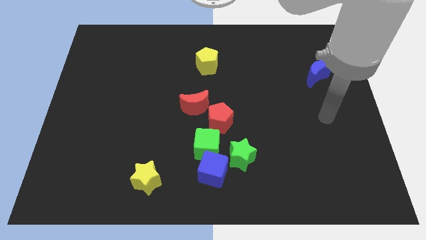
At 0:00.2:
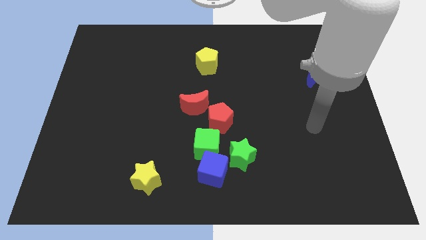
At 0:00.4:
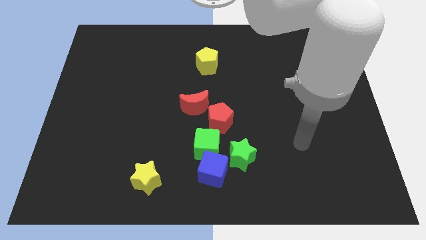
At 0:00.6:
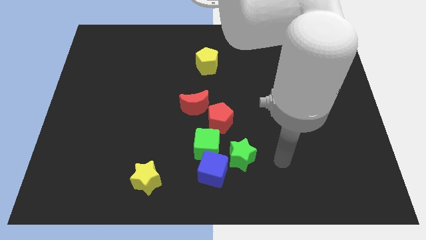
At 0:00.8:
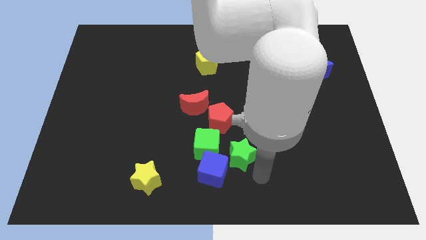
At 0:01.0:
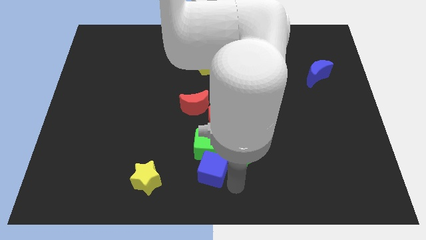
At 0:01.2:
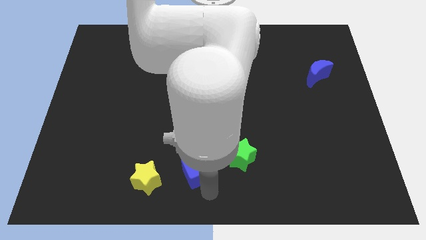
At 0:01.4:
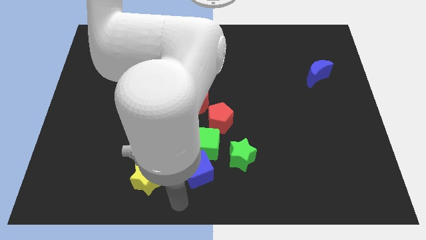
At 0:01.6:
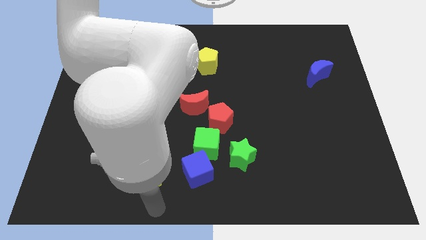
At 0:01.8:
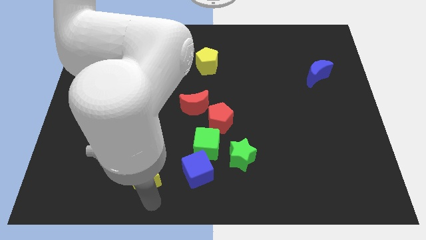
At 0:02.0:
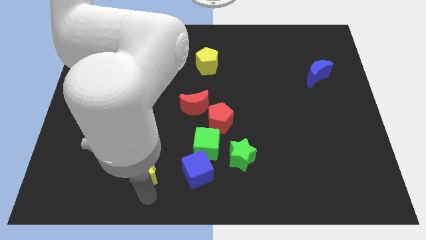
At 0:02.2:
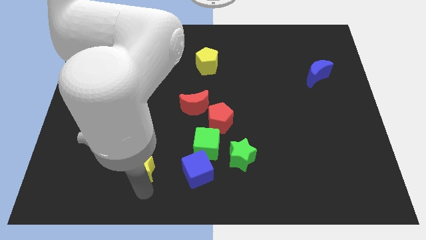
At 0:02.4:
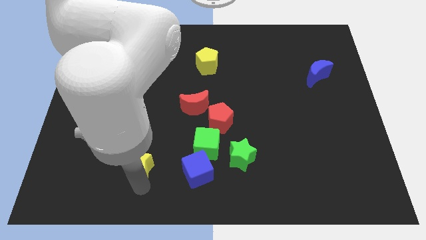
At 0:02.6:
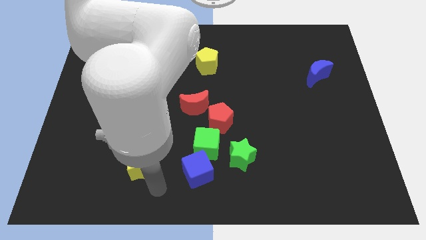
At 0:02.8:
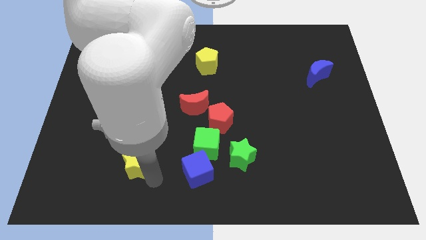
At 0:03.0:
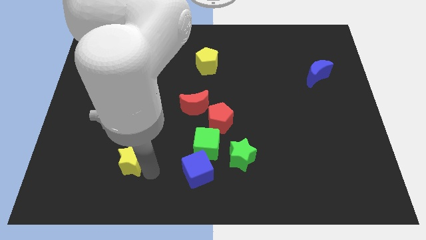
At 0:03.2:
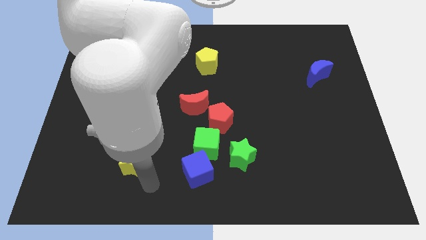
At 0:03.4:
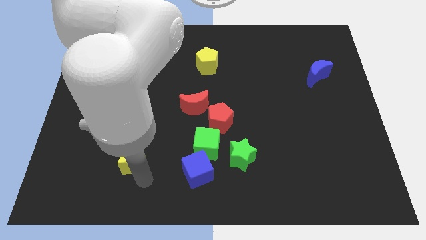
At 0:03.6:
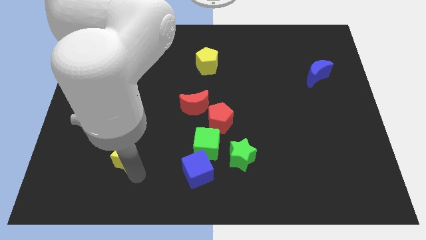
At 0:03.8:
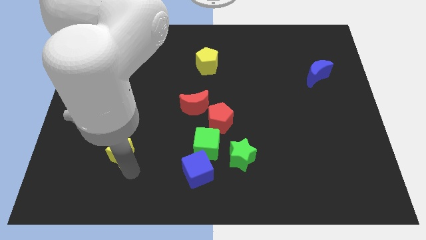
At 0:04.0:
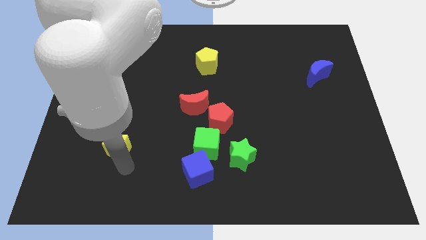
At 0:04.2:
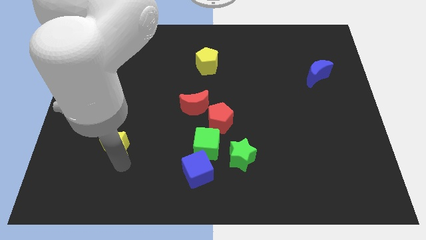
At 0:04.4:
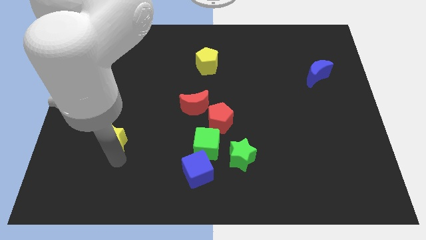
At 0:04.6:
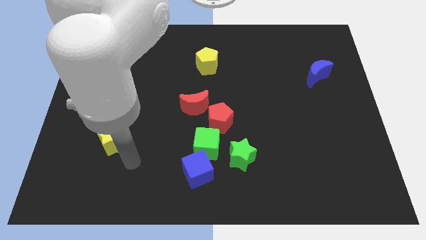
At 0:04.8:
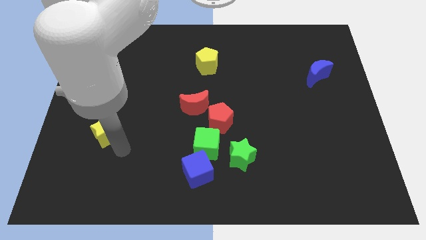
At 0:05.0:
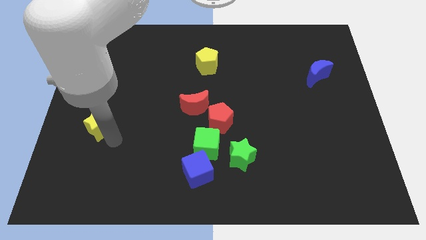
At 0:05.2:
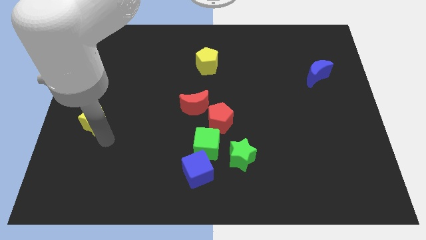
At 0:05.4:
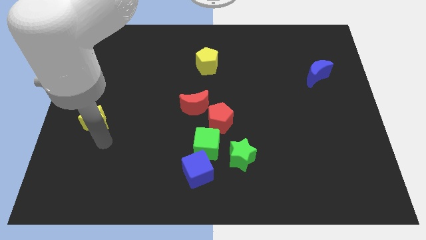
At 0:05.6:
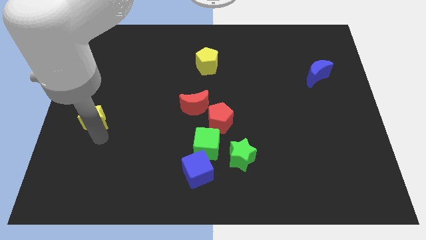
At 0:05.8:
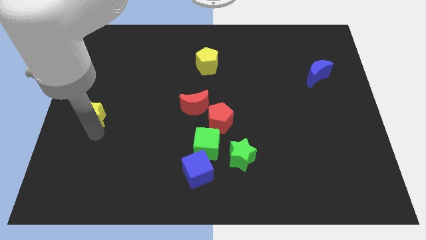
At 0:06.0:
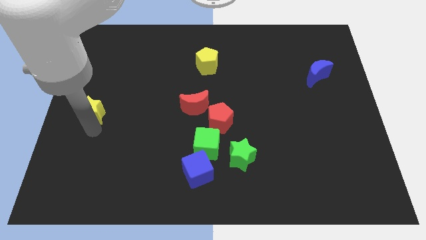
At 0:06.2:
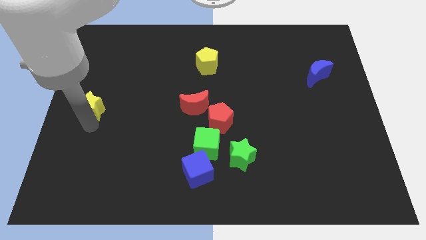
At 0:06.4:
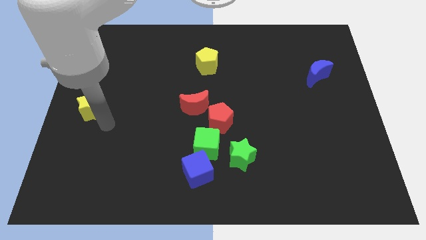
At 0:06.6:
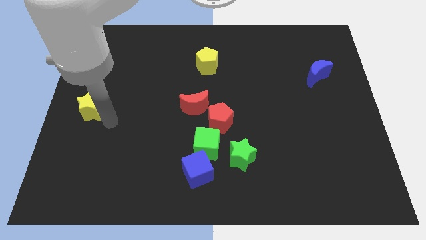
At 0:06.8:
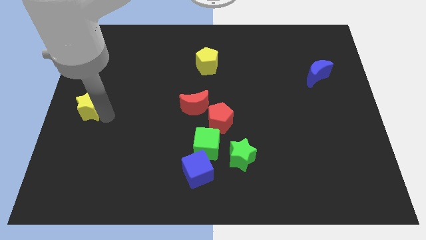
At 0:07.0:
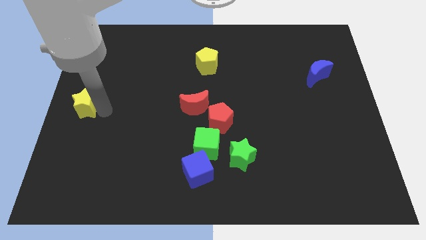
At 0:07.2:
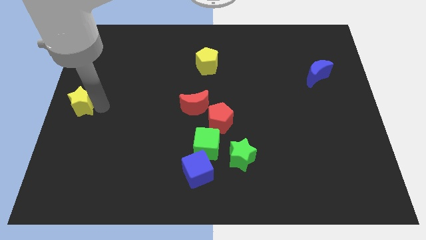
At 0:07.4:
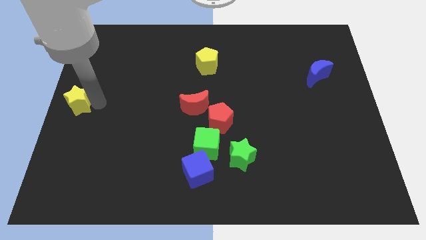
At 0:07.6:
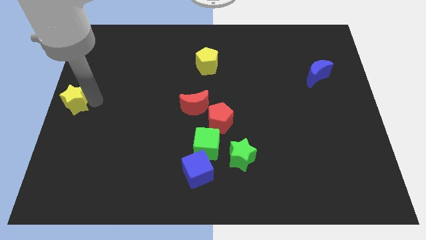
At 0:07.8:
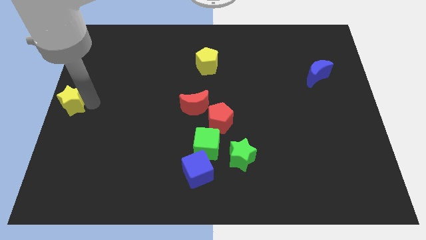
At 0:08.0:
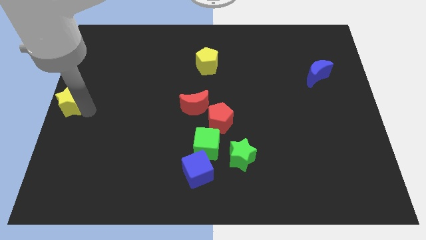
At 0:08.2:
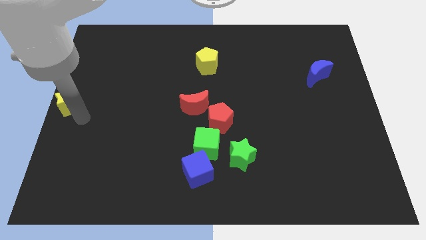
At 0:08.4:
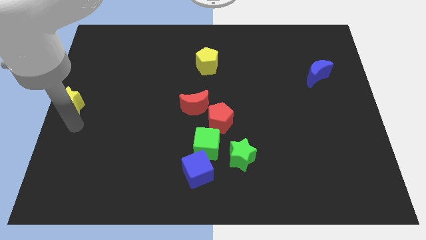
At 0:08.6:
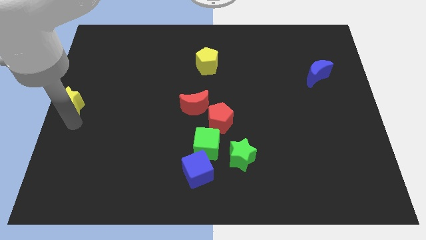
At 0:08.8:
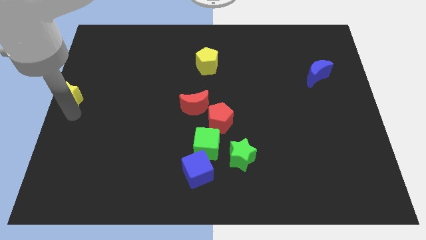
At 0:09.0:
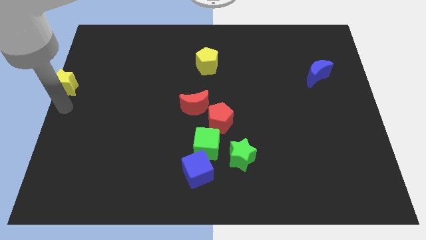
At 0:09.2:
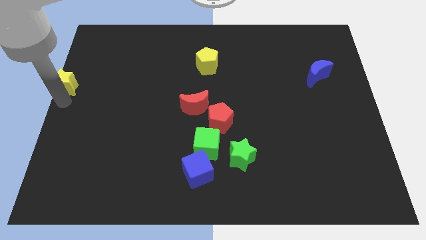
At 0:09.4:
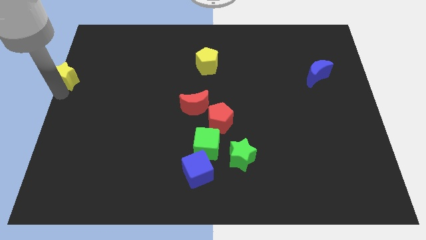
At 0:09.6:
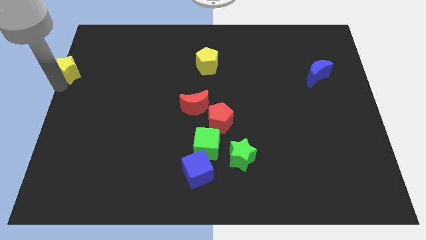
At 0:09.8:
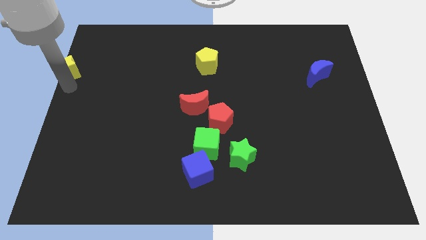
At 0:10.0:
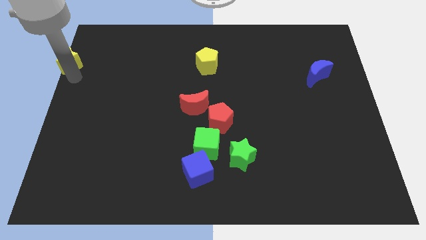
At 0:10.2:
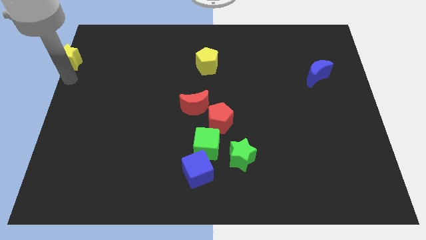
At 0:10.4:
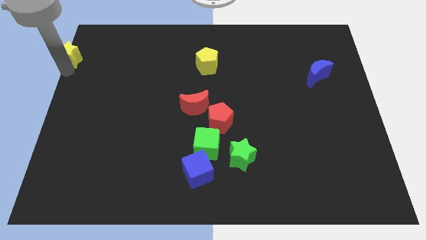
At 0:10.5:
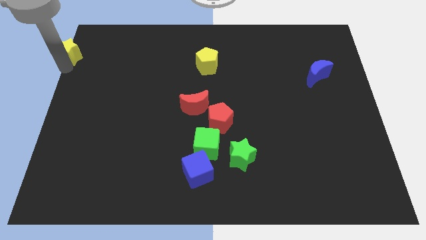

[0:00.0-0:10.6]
move the yellow star to the upper left corner
